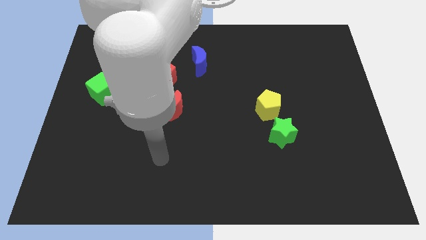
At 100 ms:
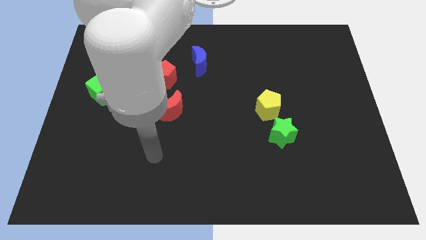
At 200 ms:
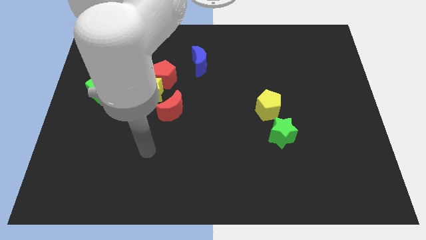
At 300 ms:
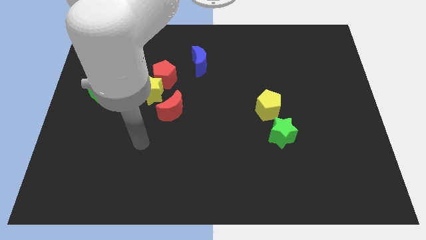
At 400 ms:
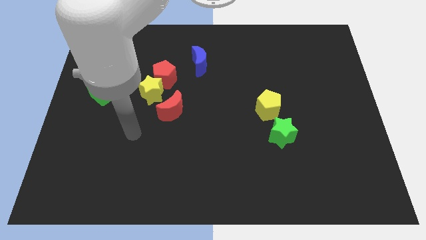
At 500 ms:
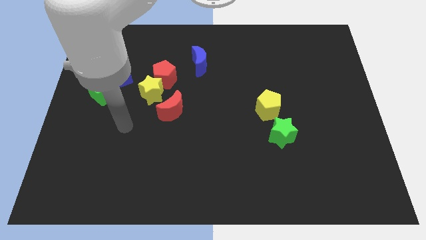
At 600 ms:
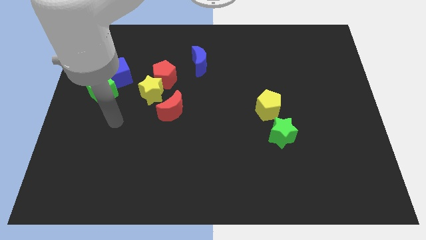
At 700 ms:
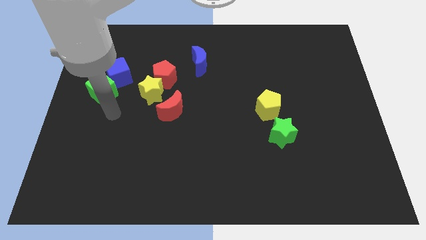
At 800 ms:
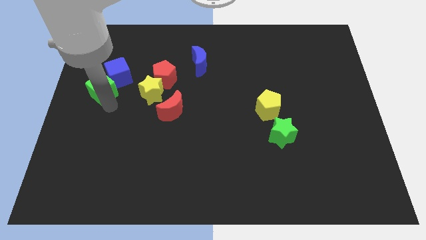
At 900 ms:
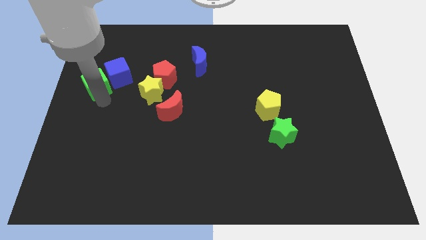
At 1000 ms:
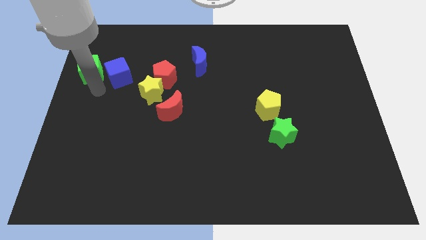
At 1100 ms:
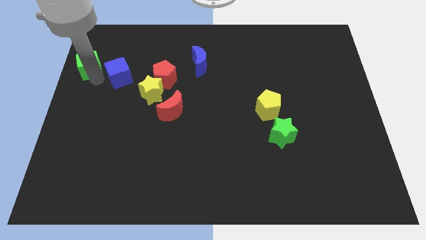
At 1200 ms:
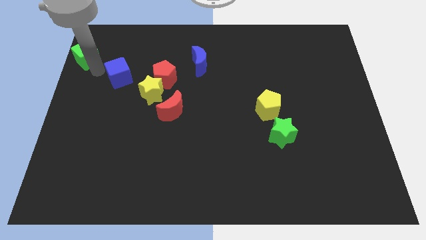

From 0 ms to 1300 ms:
move the blue cube away from the green cube

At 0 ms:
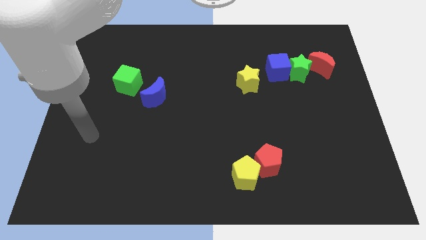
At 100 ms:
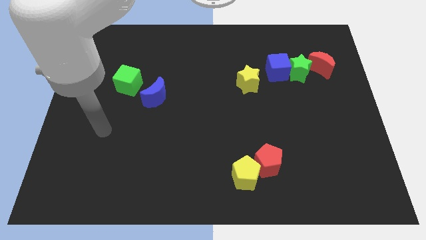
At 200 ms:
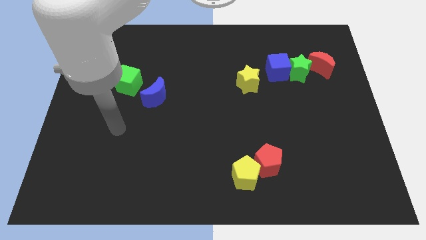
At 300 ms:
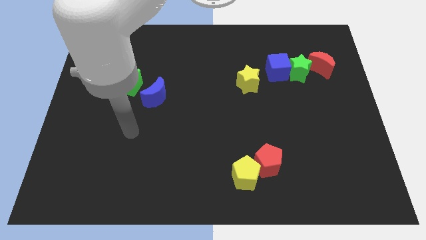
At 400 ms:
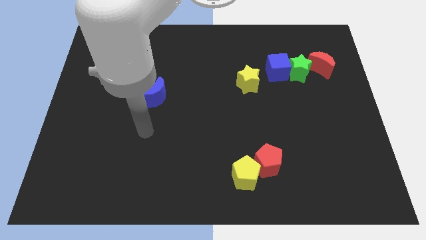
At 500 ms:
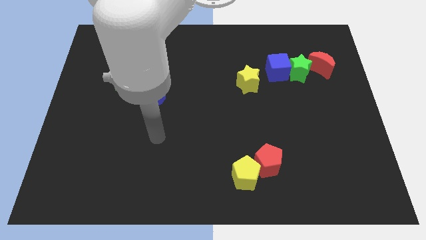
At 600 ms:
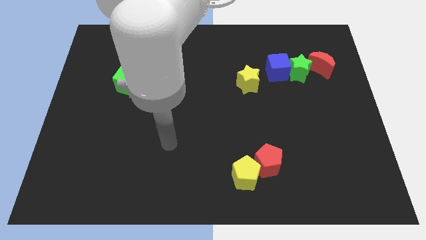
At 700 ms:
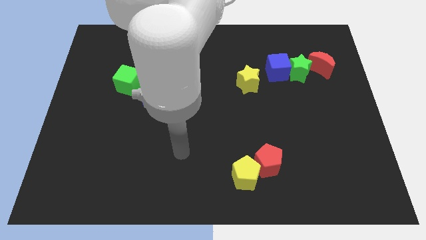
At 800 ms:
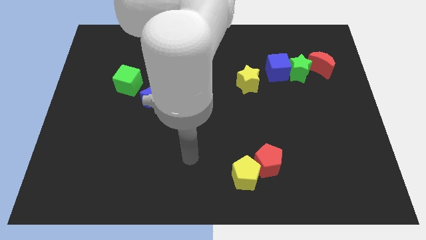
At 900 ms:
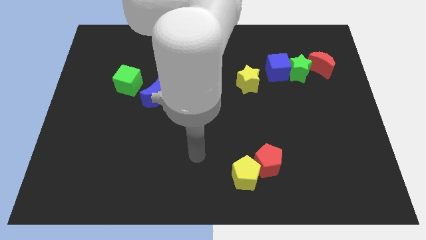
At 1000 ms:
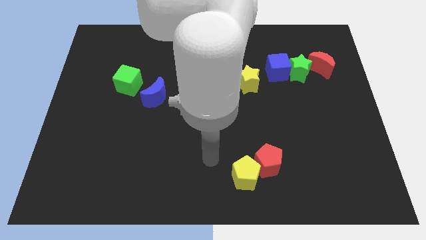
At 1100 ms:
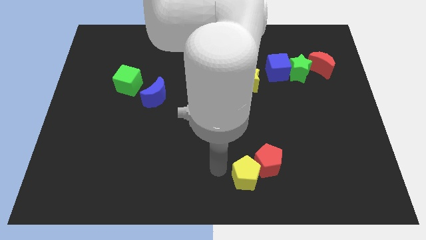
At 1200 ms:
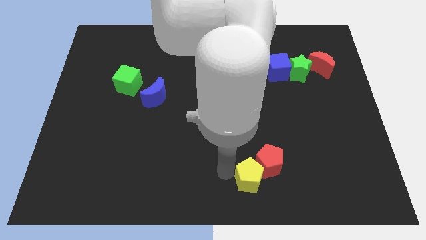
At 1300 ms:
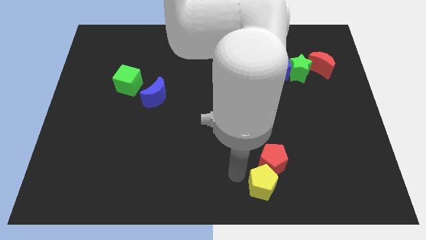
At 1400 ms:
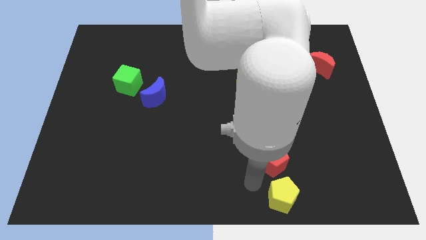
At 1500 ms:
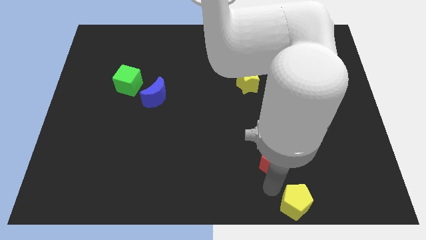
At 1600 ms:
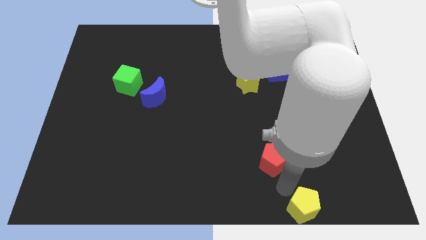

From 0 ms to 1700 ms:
pull the red pentagon apart from the yellow pentagon

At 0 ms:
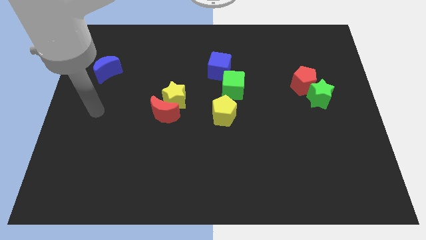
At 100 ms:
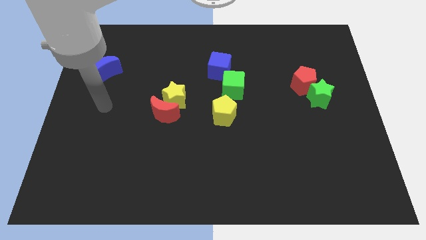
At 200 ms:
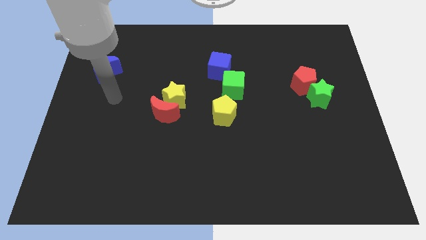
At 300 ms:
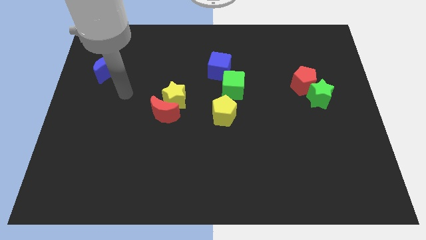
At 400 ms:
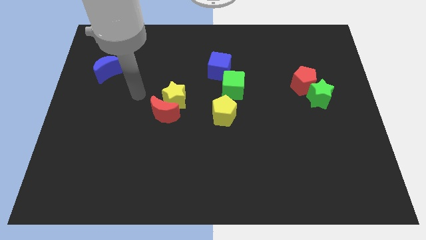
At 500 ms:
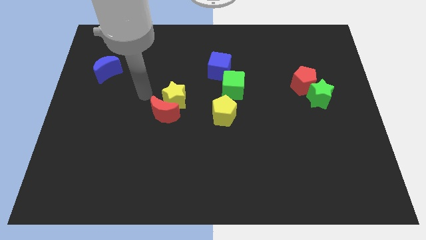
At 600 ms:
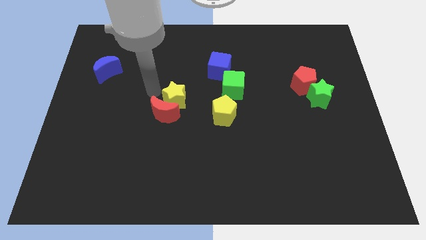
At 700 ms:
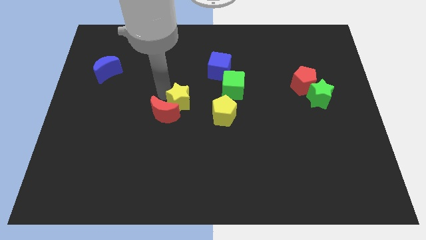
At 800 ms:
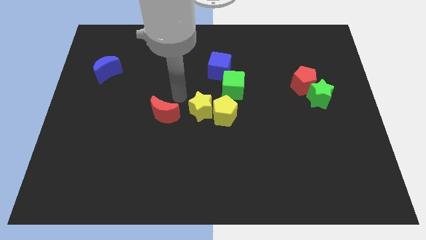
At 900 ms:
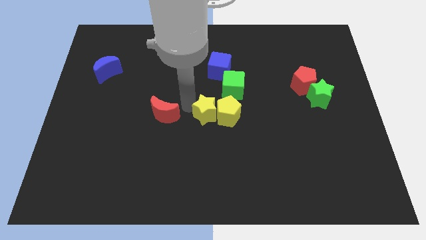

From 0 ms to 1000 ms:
separate the red moon from the yellow star

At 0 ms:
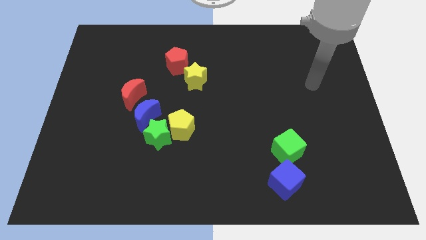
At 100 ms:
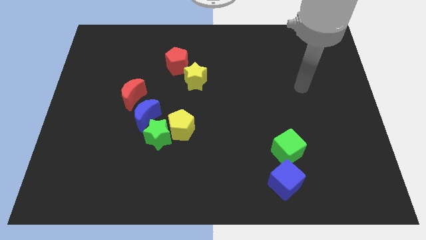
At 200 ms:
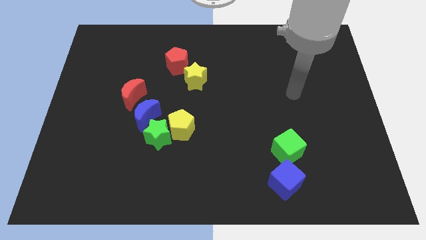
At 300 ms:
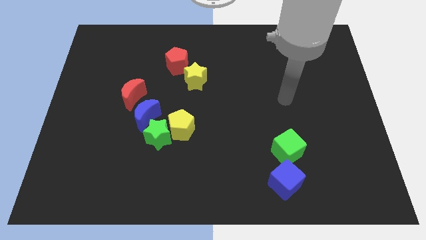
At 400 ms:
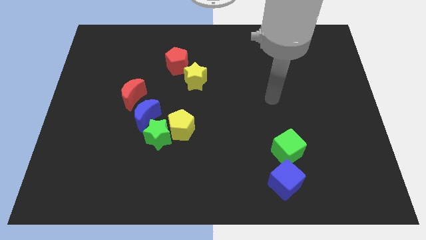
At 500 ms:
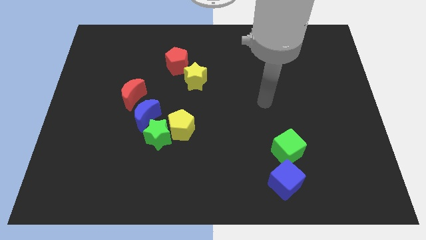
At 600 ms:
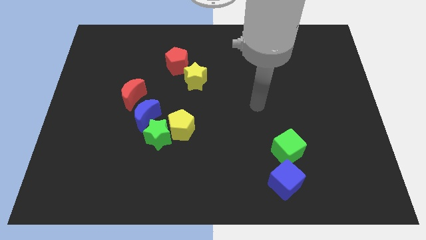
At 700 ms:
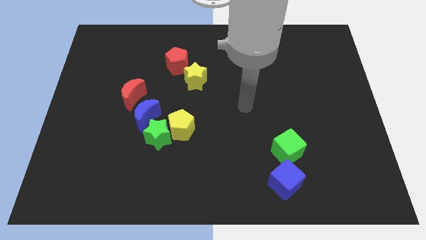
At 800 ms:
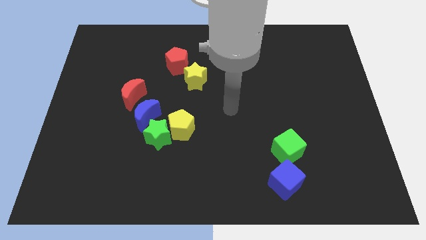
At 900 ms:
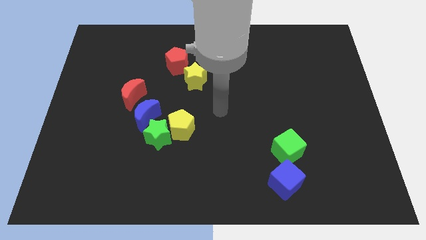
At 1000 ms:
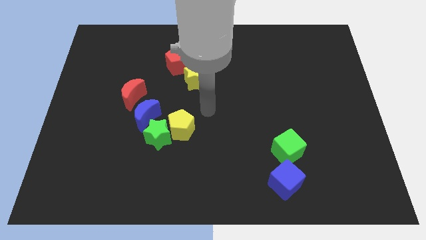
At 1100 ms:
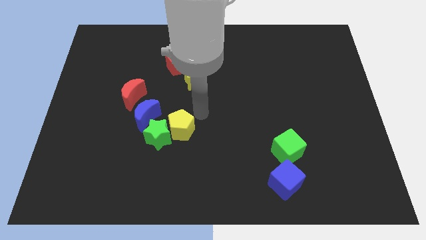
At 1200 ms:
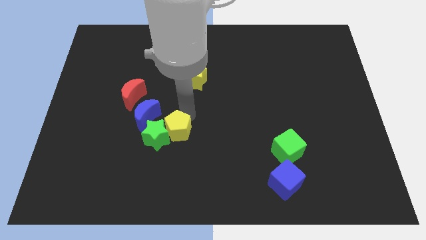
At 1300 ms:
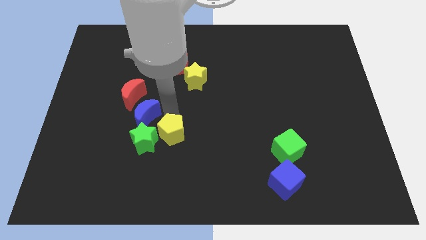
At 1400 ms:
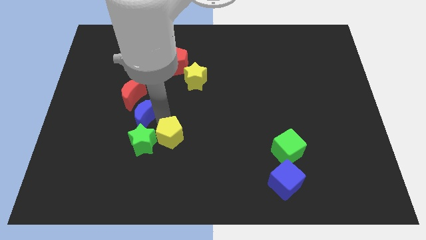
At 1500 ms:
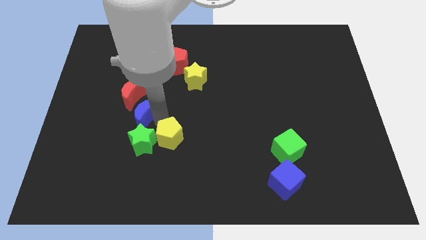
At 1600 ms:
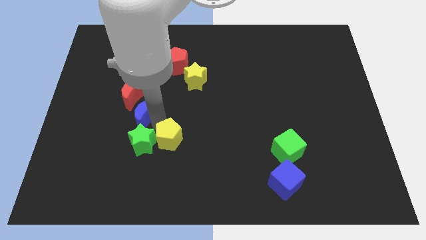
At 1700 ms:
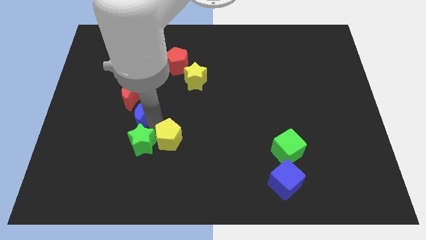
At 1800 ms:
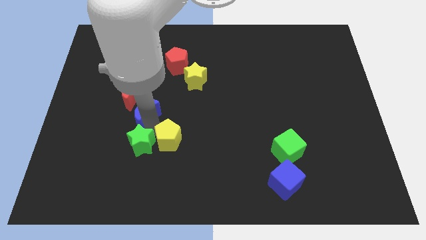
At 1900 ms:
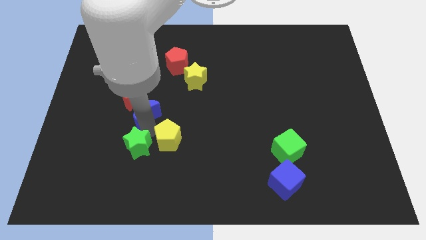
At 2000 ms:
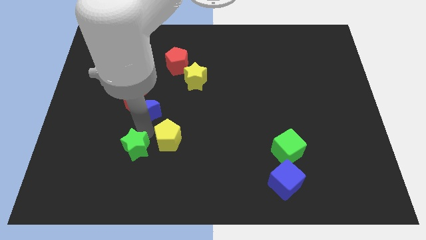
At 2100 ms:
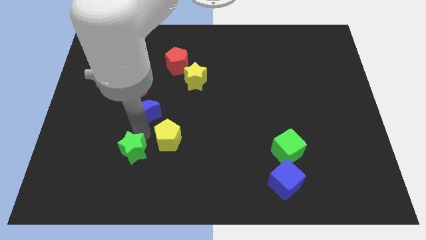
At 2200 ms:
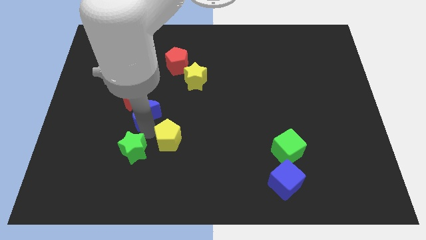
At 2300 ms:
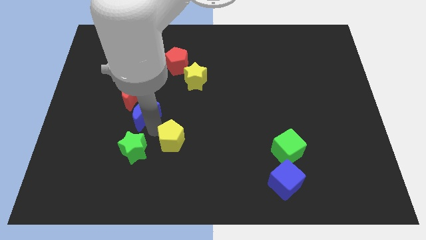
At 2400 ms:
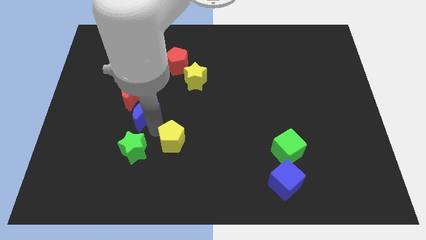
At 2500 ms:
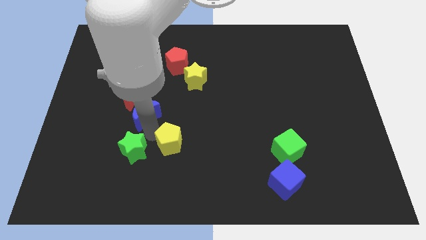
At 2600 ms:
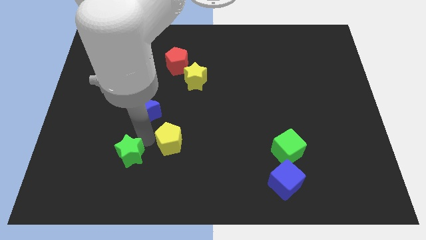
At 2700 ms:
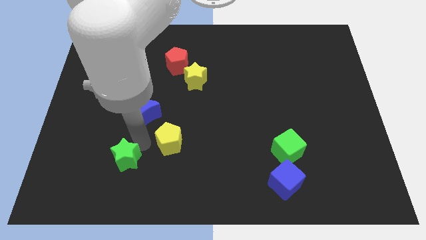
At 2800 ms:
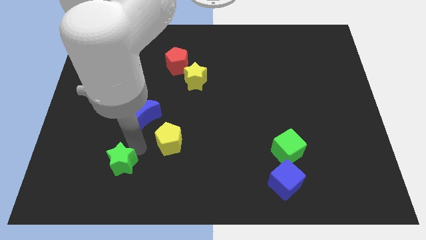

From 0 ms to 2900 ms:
separate the green star from the yellow pentagon and blue moon

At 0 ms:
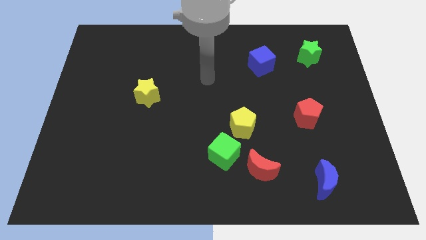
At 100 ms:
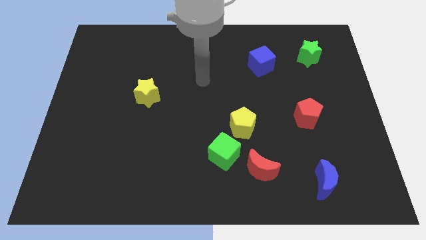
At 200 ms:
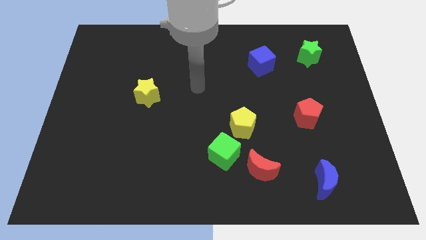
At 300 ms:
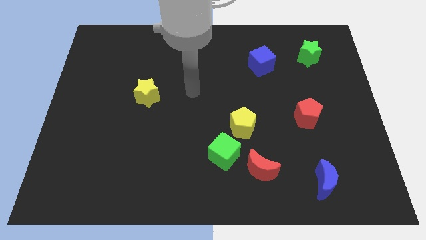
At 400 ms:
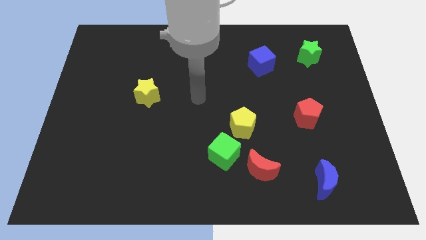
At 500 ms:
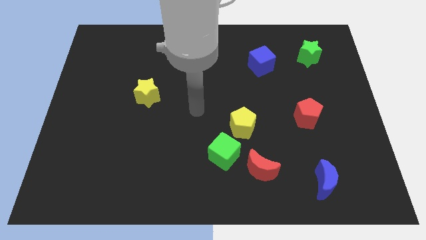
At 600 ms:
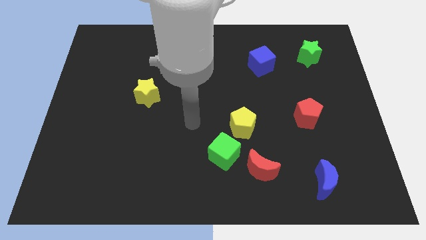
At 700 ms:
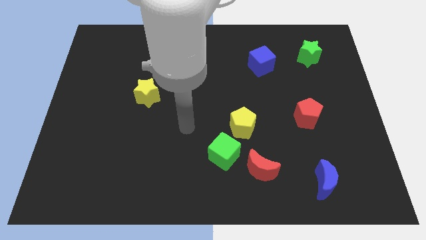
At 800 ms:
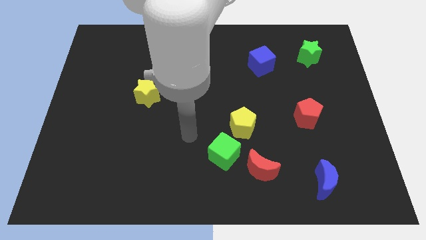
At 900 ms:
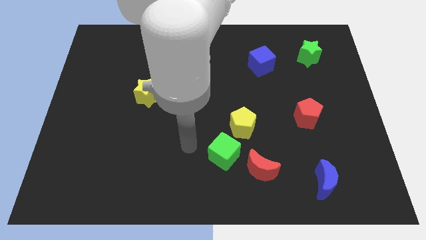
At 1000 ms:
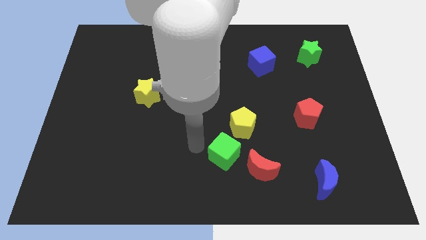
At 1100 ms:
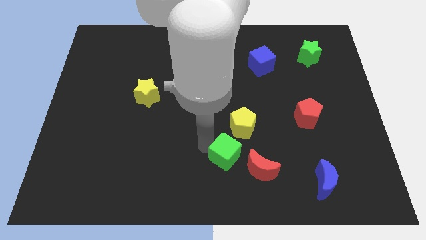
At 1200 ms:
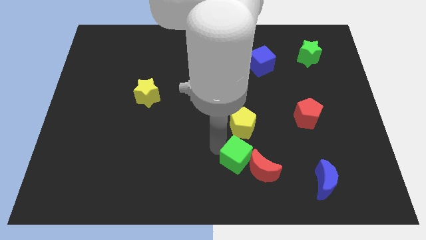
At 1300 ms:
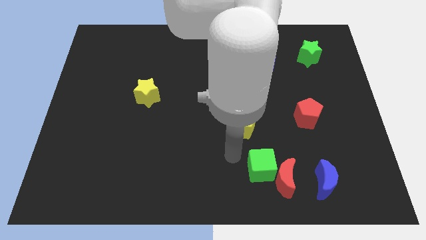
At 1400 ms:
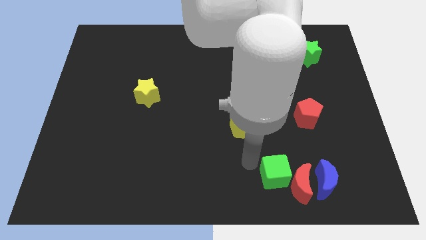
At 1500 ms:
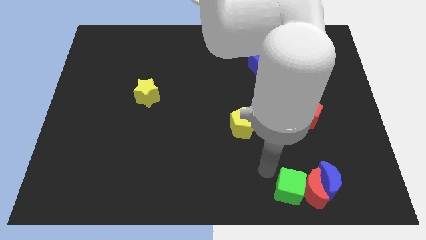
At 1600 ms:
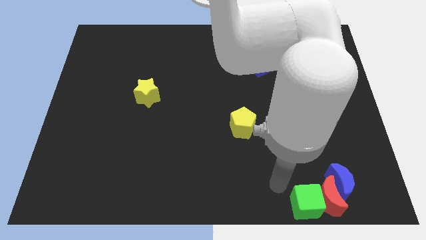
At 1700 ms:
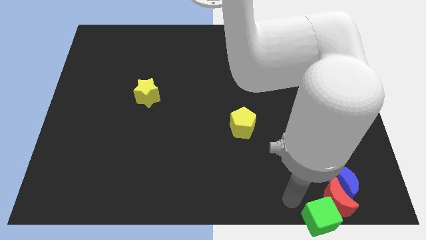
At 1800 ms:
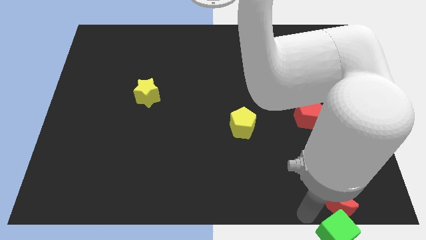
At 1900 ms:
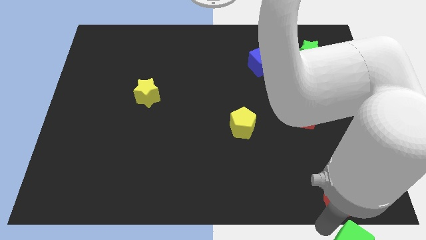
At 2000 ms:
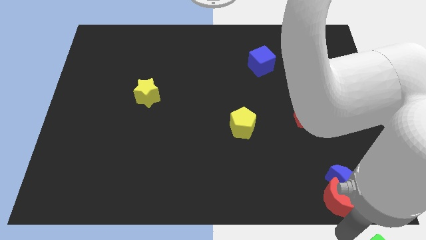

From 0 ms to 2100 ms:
separate the red moon from the green cube

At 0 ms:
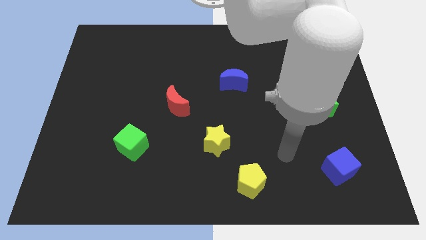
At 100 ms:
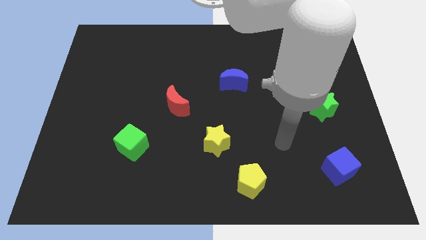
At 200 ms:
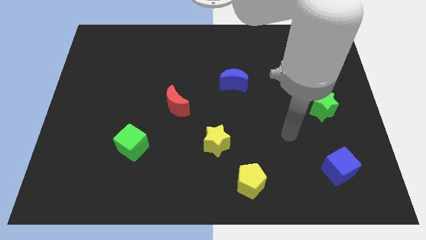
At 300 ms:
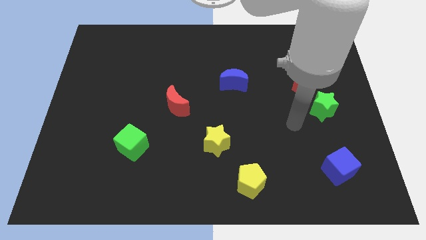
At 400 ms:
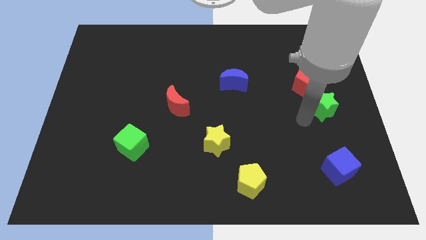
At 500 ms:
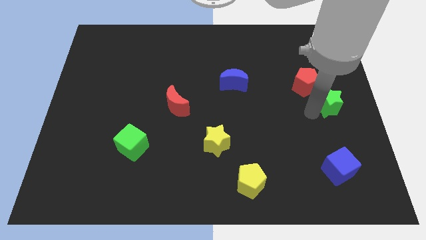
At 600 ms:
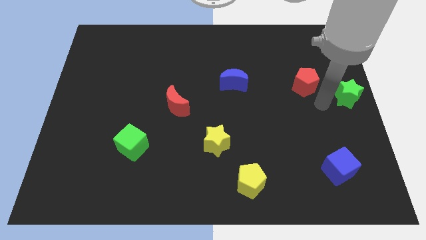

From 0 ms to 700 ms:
move the red pentagon away from the green star
